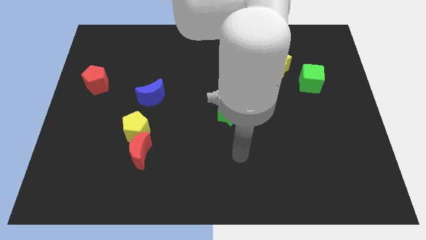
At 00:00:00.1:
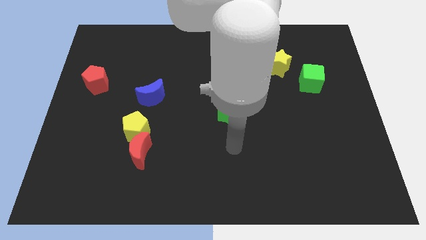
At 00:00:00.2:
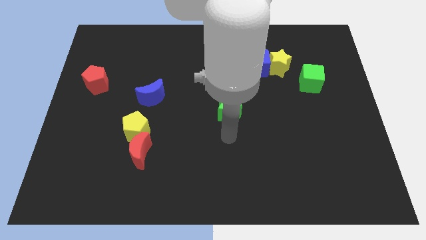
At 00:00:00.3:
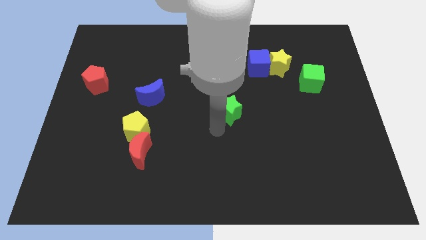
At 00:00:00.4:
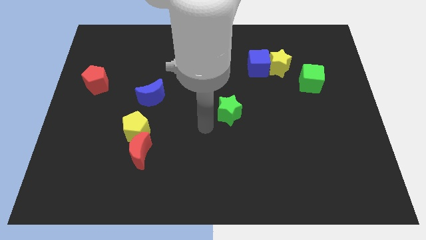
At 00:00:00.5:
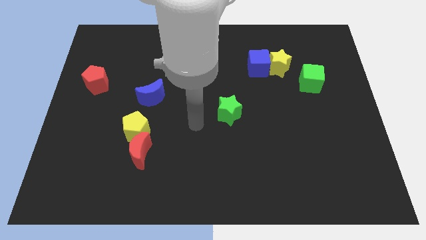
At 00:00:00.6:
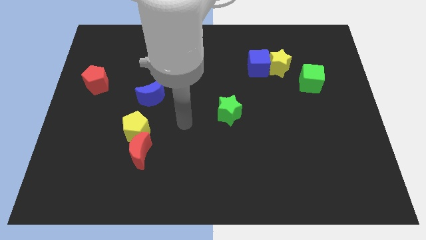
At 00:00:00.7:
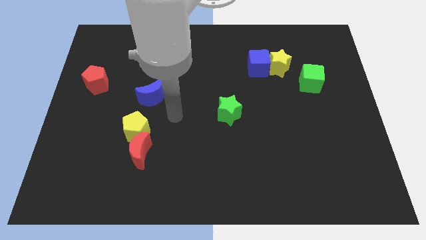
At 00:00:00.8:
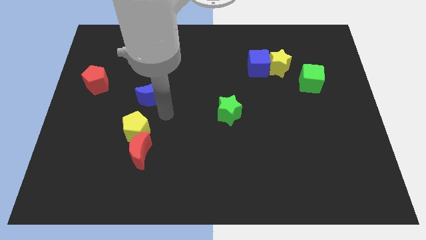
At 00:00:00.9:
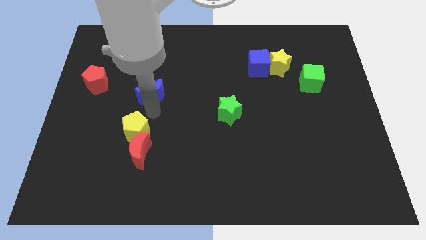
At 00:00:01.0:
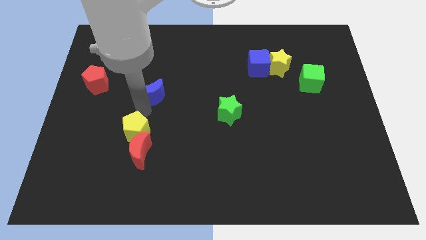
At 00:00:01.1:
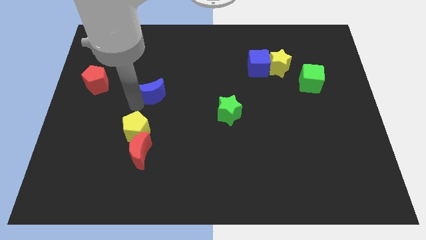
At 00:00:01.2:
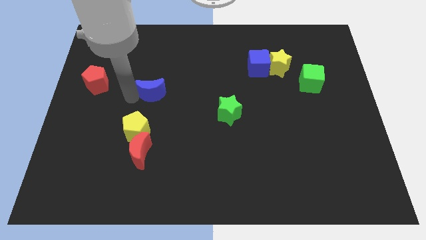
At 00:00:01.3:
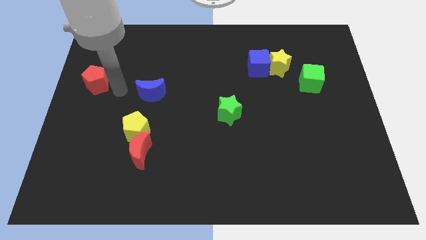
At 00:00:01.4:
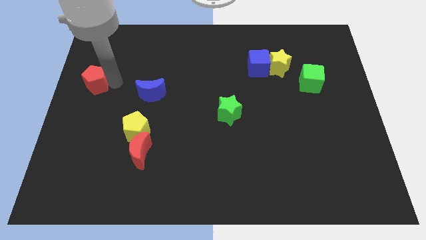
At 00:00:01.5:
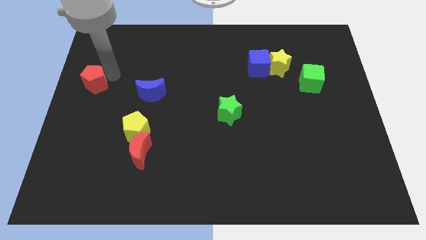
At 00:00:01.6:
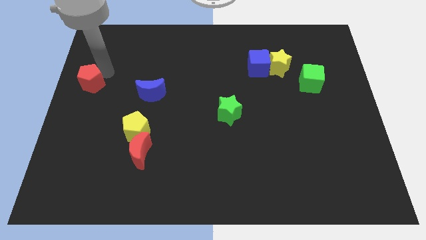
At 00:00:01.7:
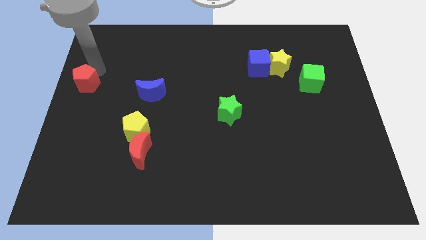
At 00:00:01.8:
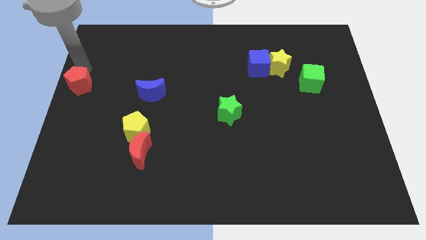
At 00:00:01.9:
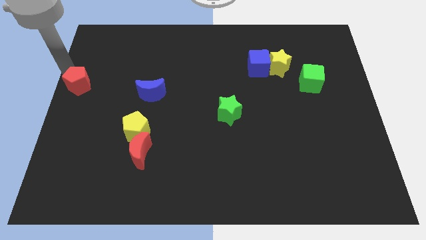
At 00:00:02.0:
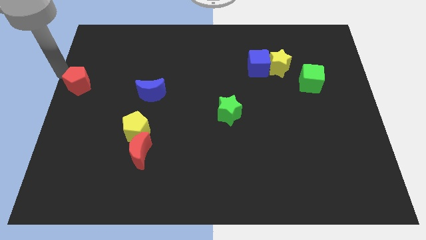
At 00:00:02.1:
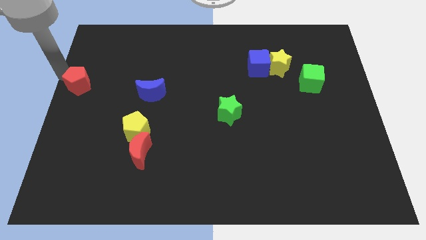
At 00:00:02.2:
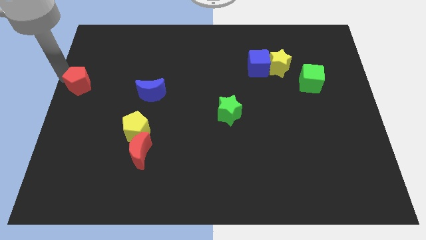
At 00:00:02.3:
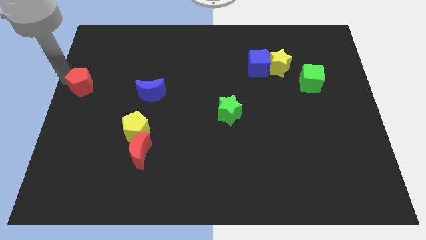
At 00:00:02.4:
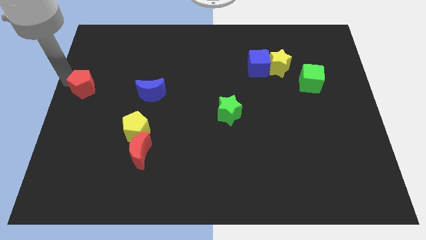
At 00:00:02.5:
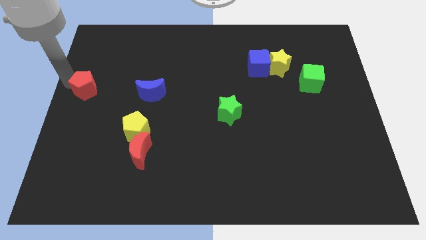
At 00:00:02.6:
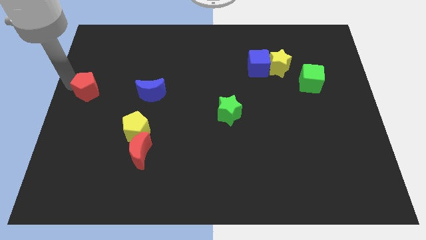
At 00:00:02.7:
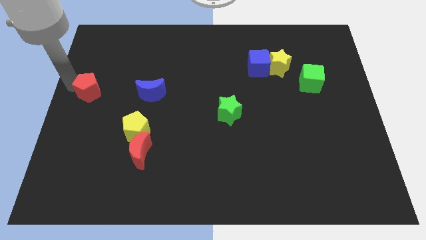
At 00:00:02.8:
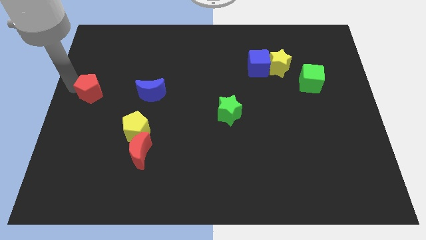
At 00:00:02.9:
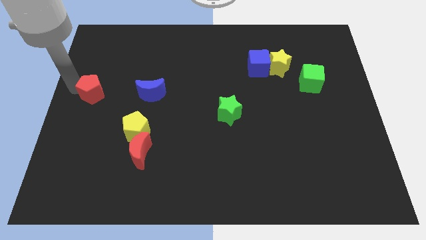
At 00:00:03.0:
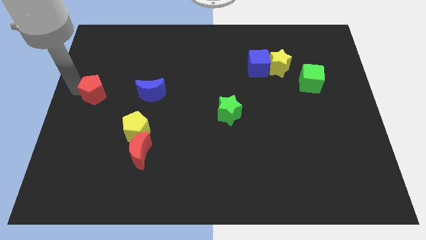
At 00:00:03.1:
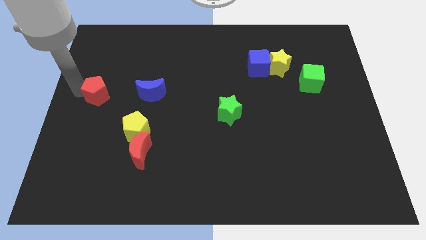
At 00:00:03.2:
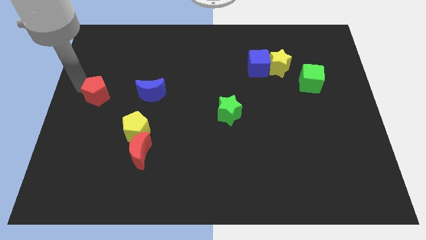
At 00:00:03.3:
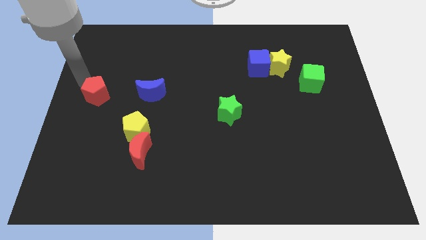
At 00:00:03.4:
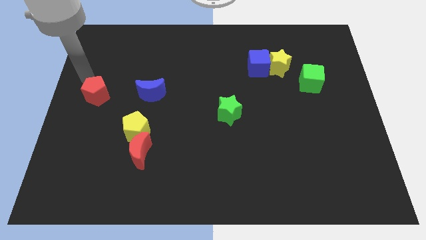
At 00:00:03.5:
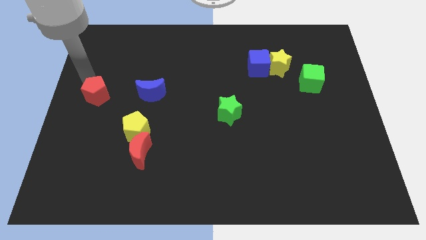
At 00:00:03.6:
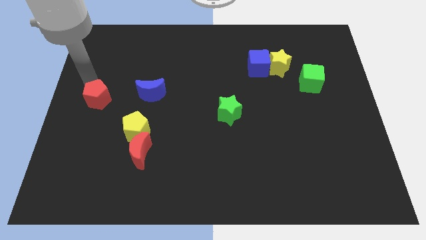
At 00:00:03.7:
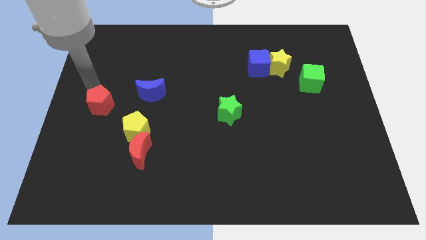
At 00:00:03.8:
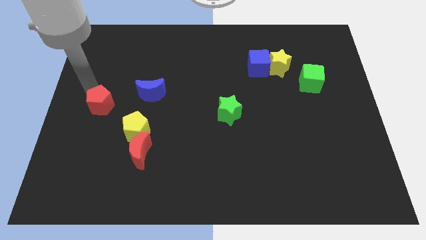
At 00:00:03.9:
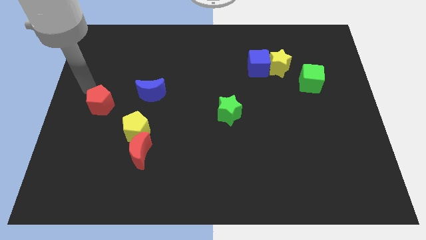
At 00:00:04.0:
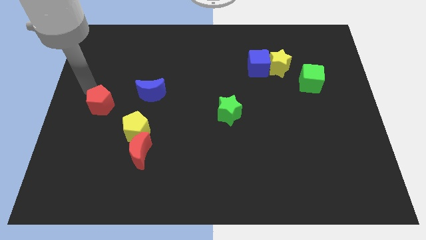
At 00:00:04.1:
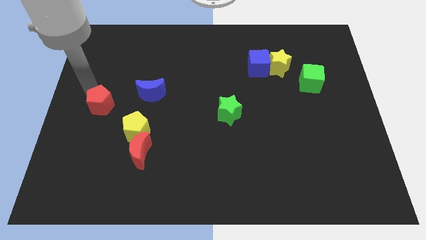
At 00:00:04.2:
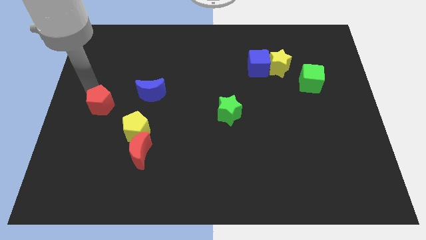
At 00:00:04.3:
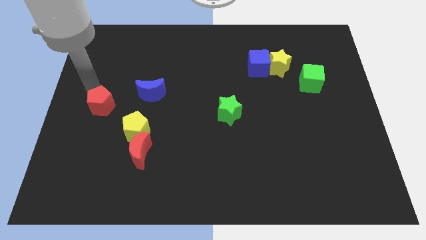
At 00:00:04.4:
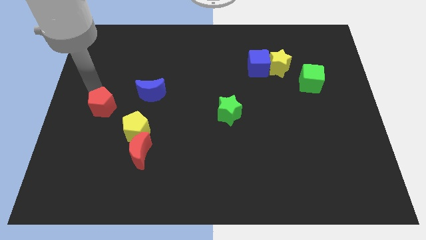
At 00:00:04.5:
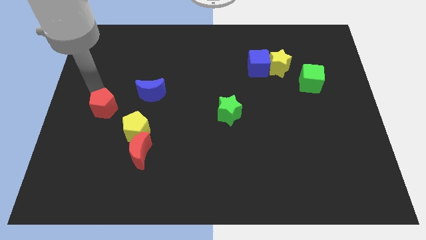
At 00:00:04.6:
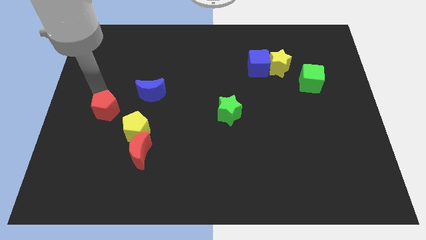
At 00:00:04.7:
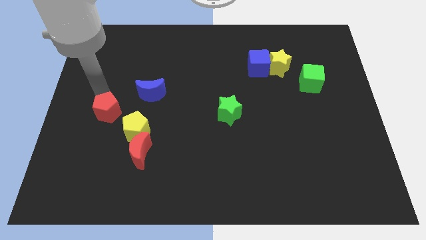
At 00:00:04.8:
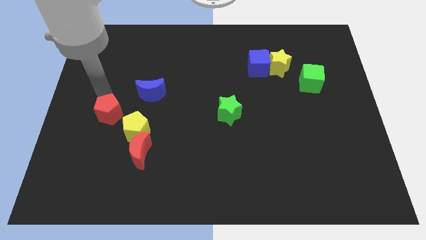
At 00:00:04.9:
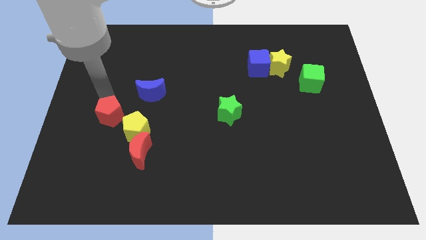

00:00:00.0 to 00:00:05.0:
move the red pentagon to the top left side of the red moon

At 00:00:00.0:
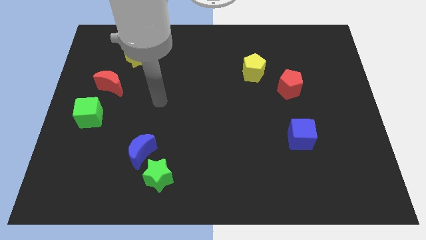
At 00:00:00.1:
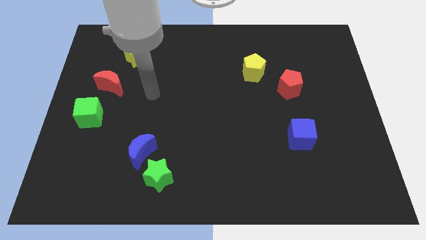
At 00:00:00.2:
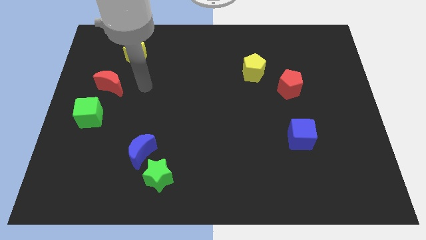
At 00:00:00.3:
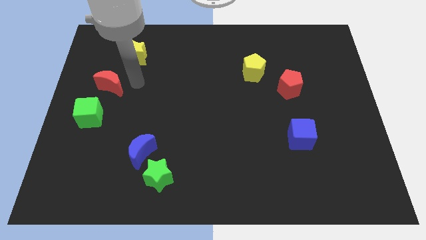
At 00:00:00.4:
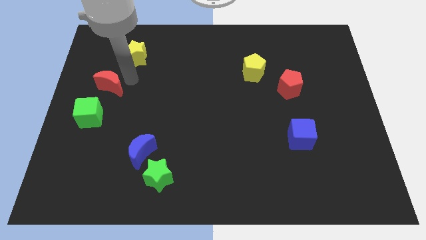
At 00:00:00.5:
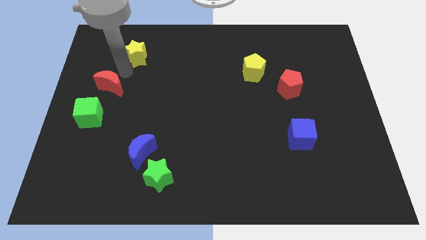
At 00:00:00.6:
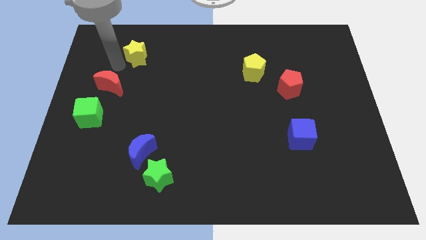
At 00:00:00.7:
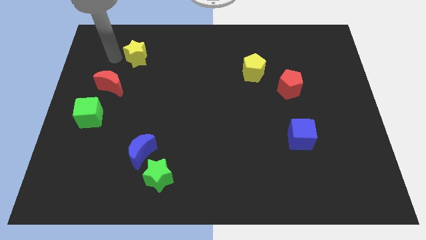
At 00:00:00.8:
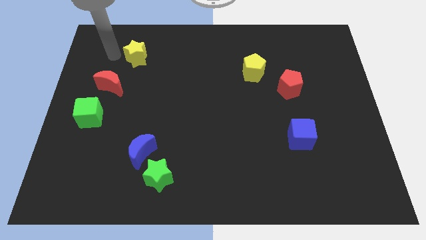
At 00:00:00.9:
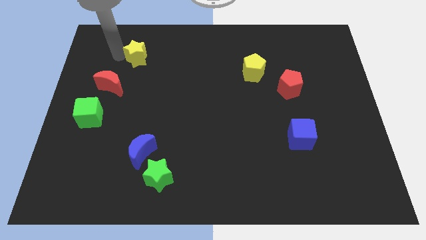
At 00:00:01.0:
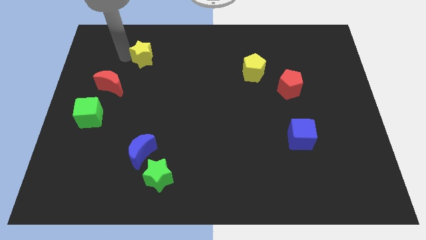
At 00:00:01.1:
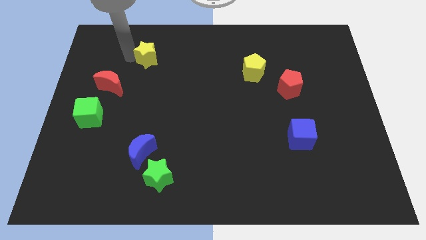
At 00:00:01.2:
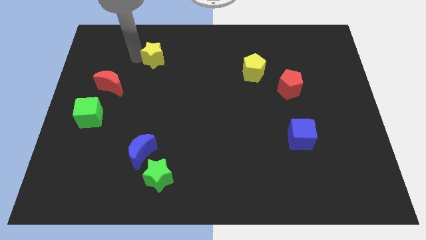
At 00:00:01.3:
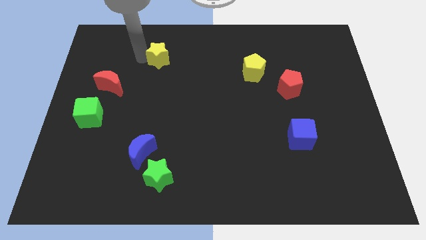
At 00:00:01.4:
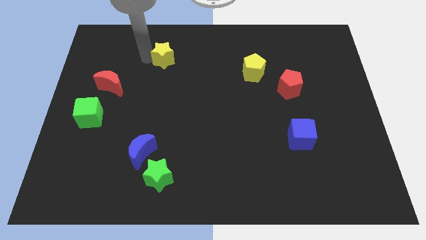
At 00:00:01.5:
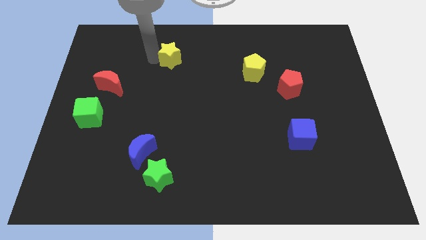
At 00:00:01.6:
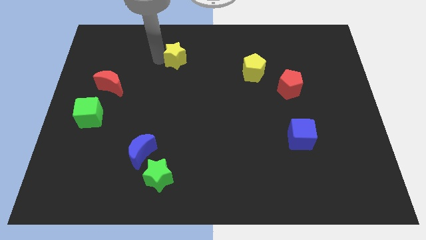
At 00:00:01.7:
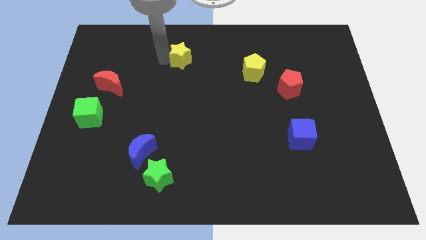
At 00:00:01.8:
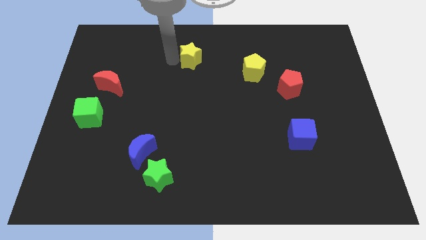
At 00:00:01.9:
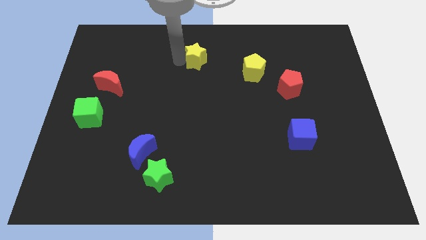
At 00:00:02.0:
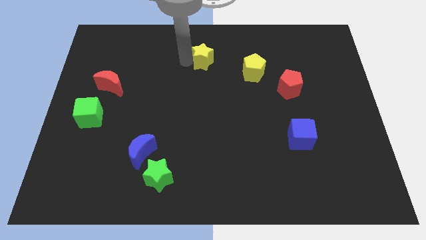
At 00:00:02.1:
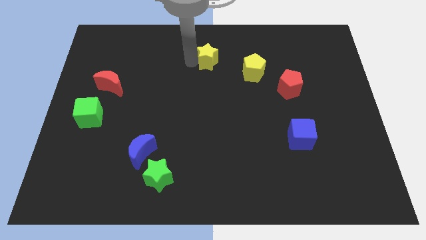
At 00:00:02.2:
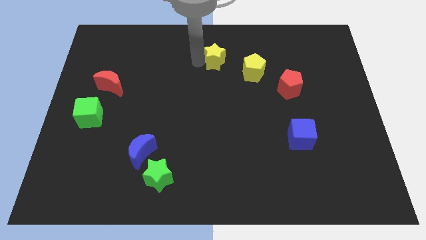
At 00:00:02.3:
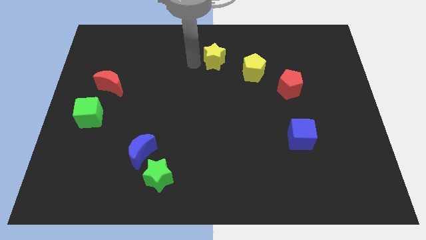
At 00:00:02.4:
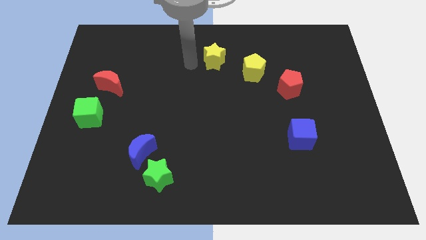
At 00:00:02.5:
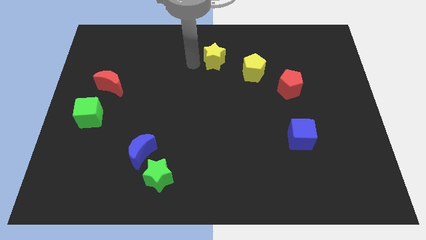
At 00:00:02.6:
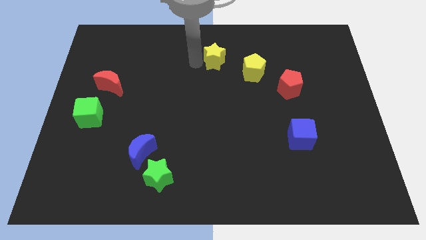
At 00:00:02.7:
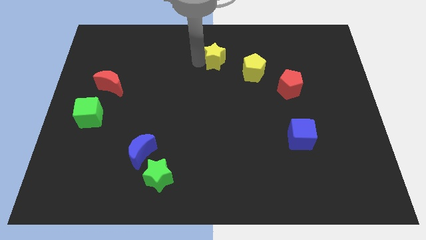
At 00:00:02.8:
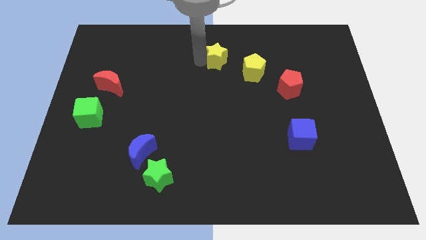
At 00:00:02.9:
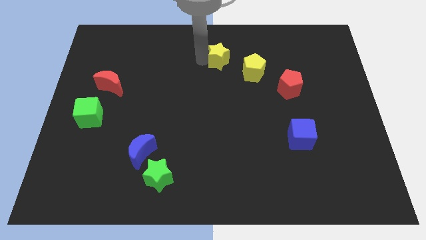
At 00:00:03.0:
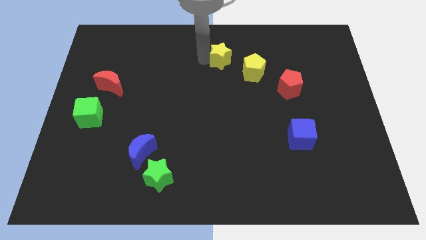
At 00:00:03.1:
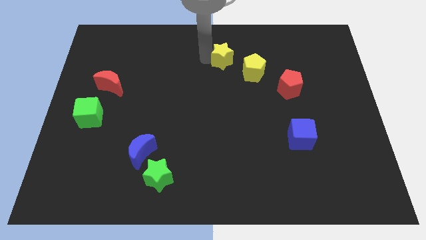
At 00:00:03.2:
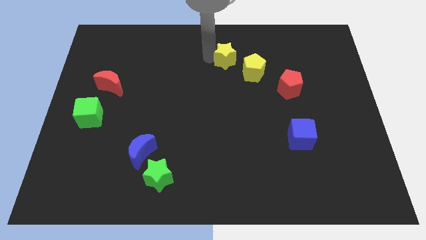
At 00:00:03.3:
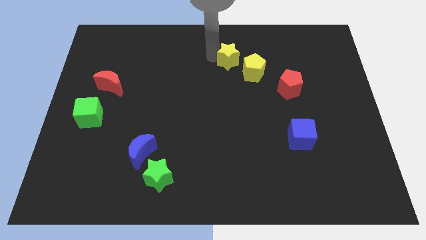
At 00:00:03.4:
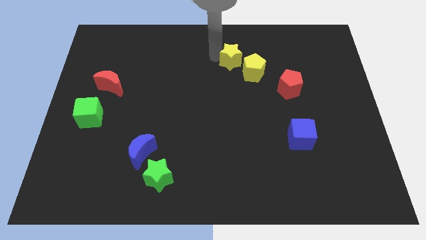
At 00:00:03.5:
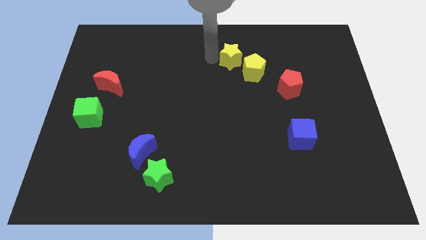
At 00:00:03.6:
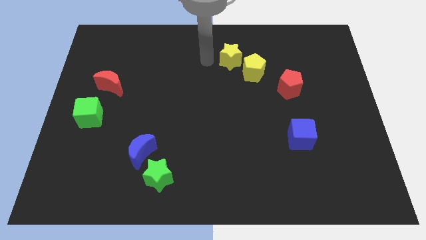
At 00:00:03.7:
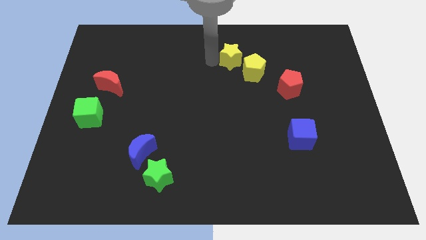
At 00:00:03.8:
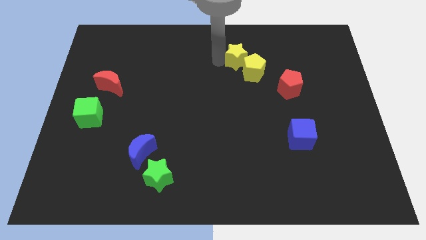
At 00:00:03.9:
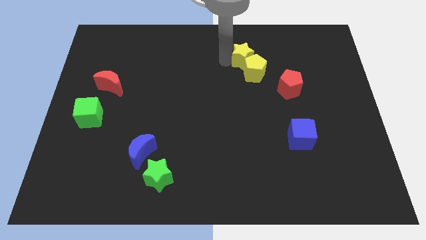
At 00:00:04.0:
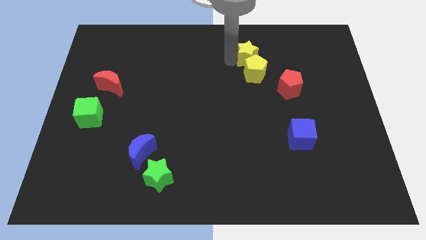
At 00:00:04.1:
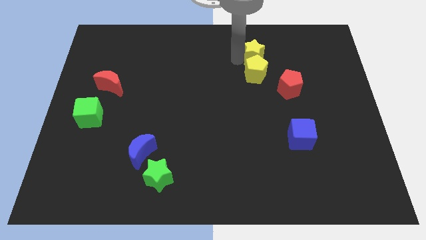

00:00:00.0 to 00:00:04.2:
slide the yellow star to the top right side of the yellow pentagon
